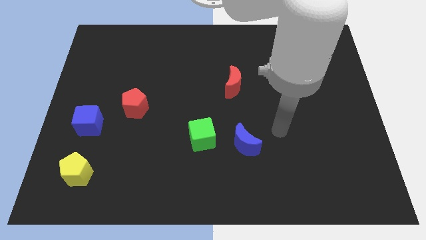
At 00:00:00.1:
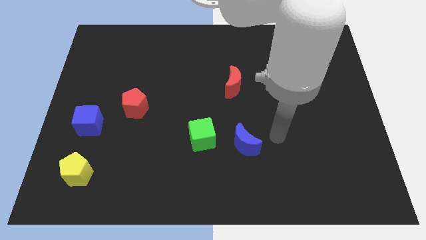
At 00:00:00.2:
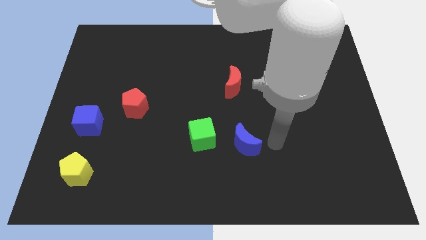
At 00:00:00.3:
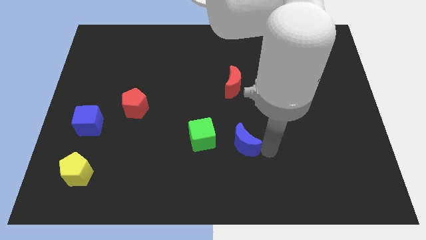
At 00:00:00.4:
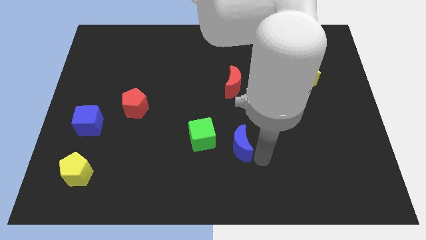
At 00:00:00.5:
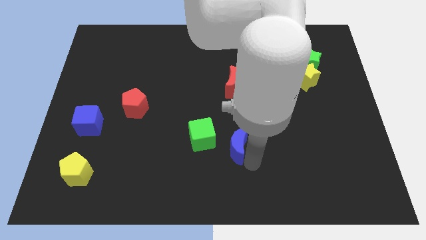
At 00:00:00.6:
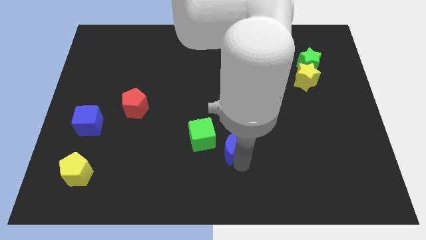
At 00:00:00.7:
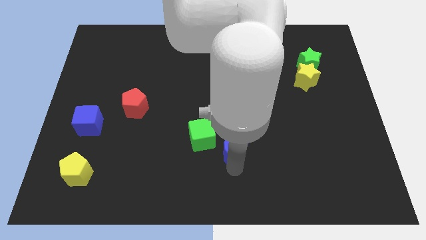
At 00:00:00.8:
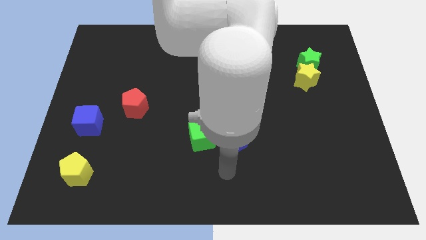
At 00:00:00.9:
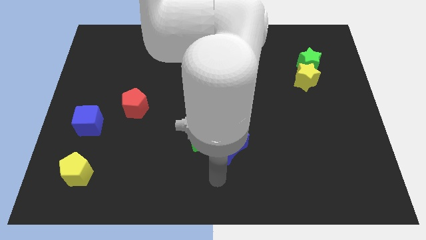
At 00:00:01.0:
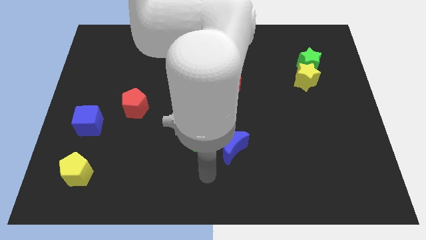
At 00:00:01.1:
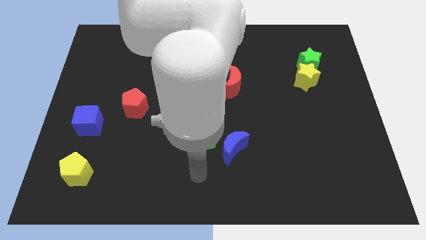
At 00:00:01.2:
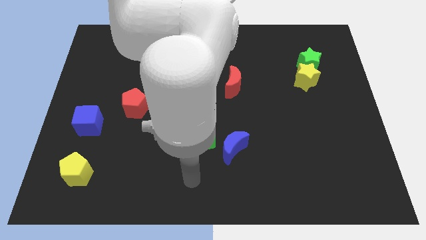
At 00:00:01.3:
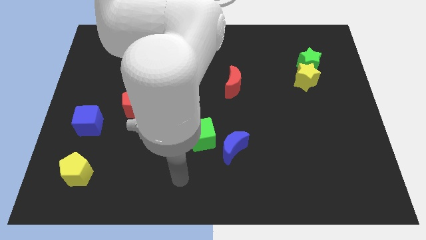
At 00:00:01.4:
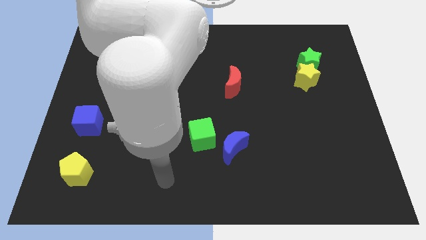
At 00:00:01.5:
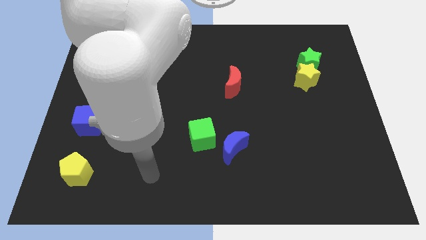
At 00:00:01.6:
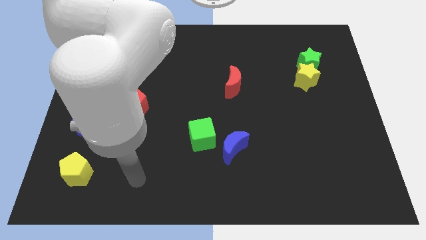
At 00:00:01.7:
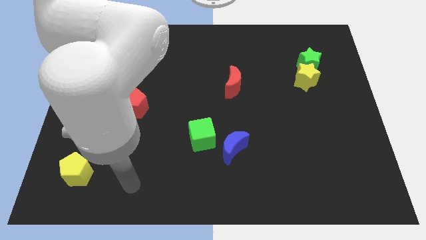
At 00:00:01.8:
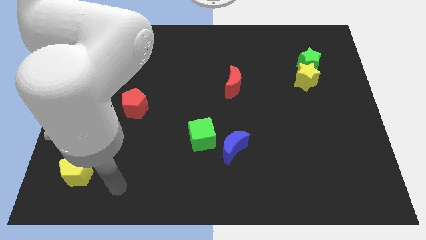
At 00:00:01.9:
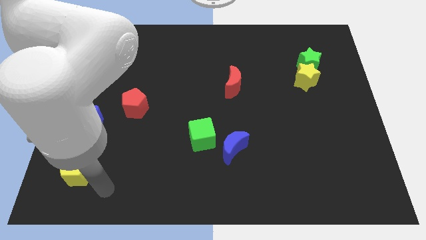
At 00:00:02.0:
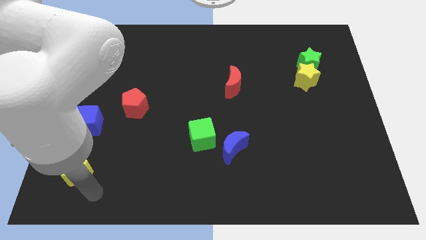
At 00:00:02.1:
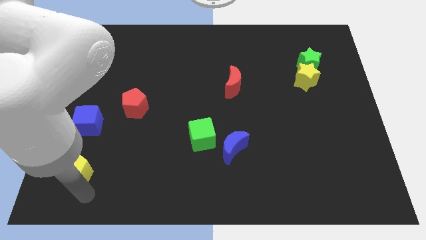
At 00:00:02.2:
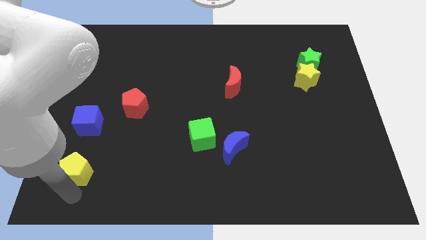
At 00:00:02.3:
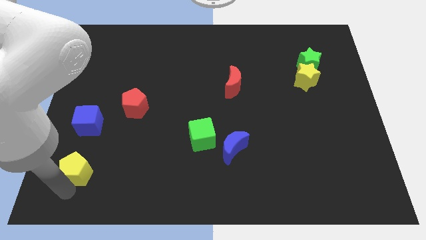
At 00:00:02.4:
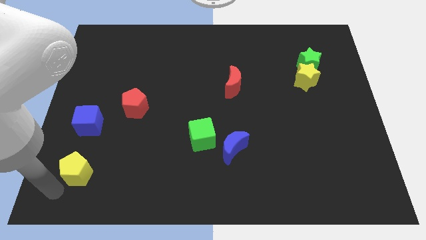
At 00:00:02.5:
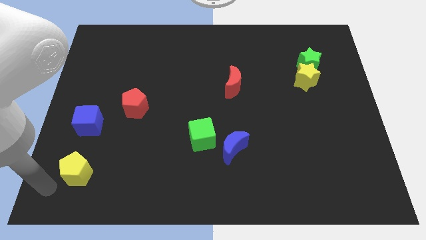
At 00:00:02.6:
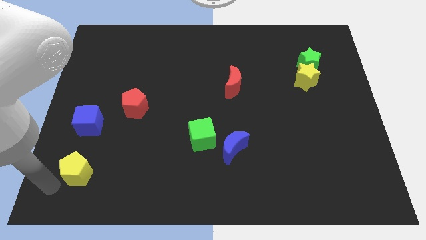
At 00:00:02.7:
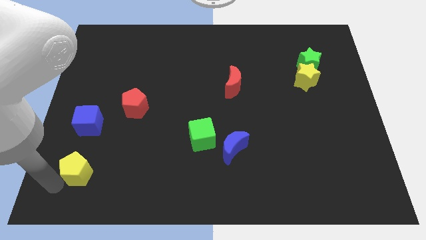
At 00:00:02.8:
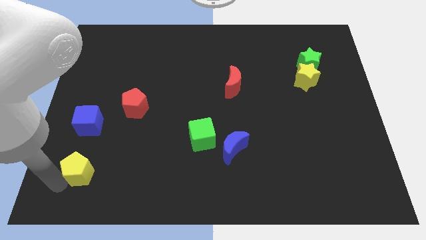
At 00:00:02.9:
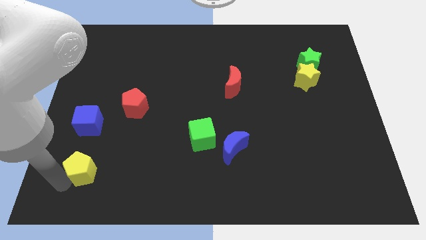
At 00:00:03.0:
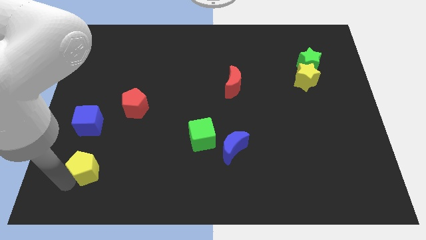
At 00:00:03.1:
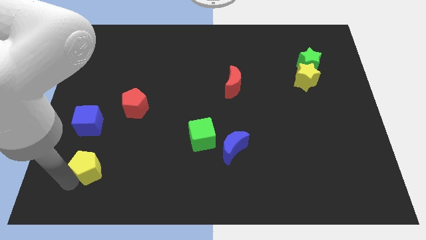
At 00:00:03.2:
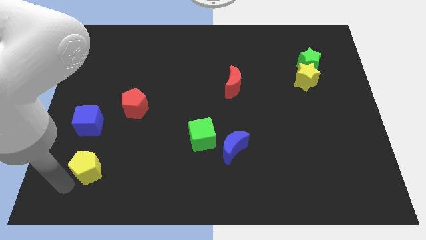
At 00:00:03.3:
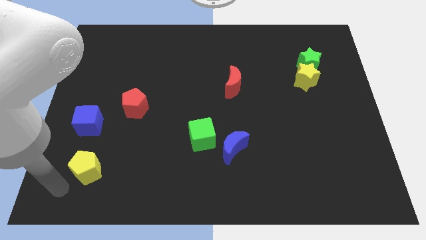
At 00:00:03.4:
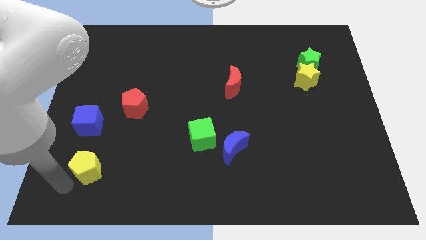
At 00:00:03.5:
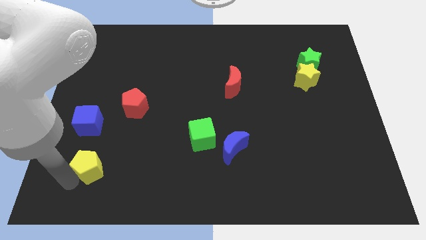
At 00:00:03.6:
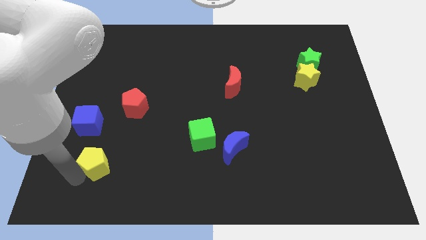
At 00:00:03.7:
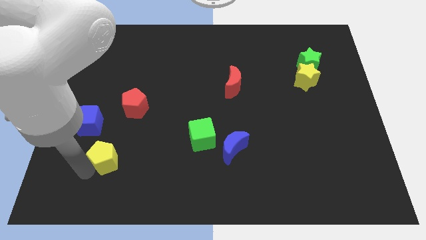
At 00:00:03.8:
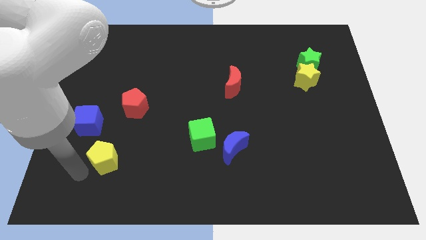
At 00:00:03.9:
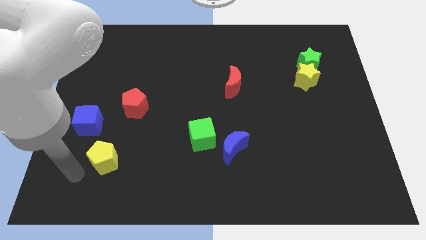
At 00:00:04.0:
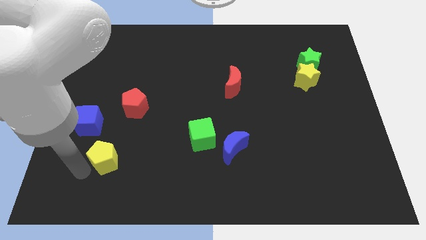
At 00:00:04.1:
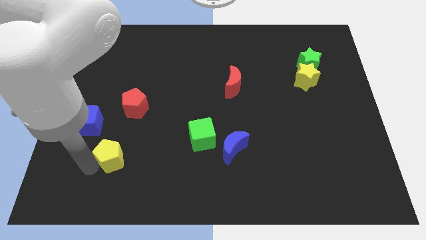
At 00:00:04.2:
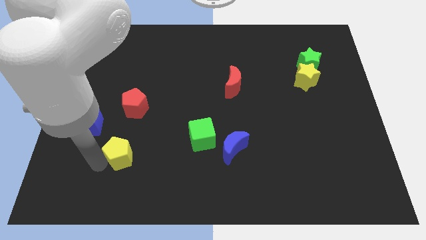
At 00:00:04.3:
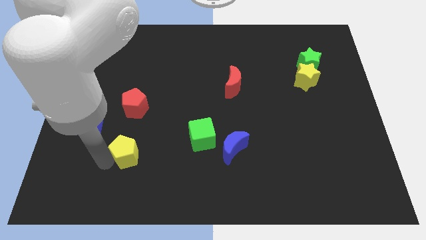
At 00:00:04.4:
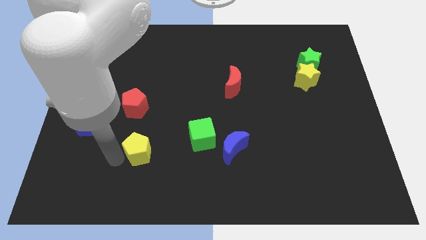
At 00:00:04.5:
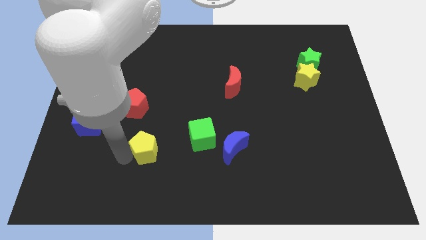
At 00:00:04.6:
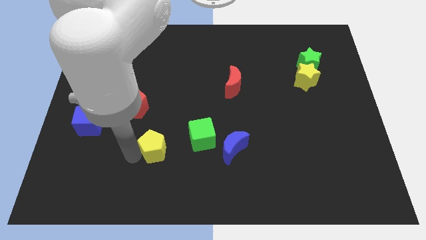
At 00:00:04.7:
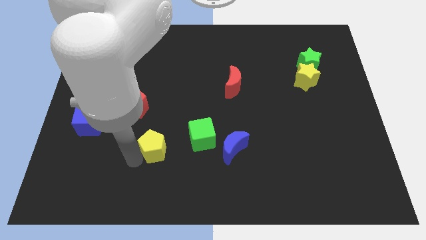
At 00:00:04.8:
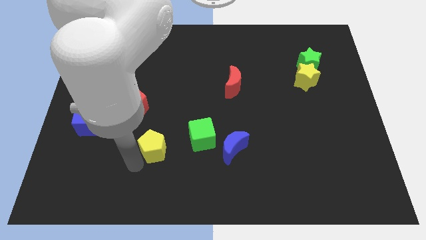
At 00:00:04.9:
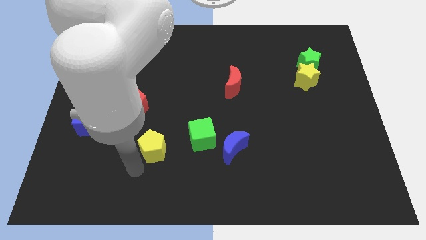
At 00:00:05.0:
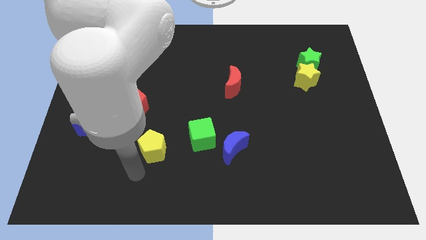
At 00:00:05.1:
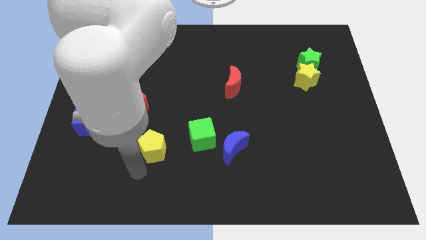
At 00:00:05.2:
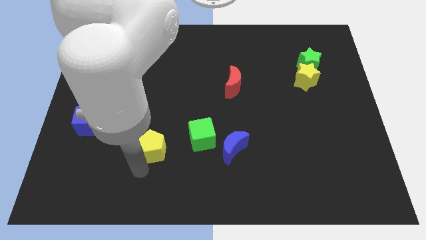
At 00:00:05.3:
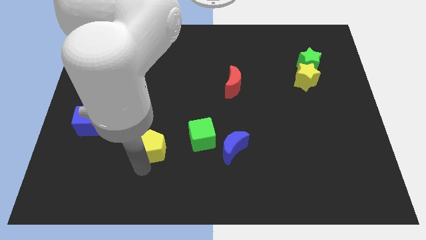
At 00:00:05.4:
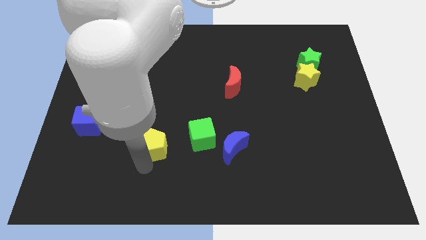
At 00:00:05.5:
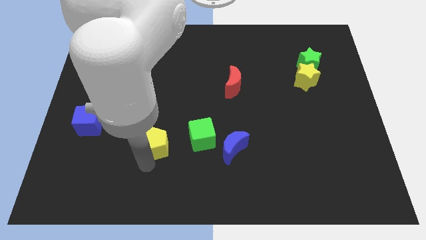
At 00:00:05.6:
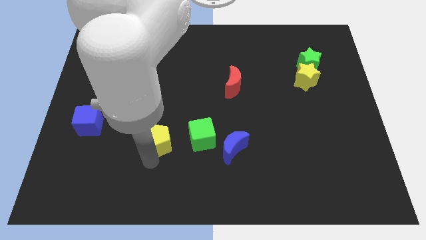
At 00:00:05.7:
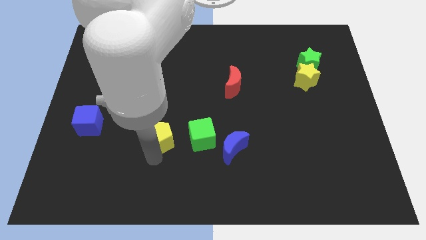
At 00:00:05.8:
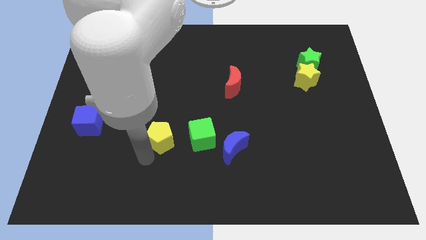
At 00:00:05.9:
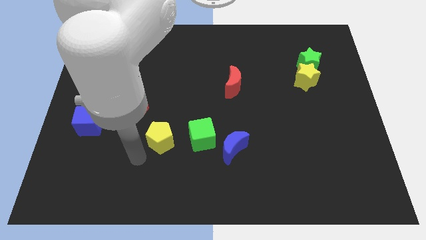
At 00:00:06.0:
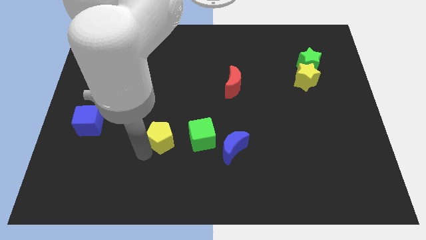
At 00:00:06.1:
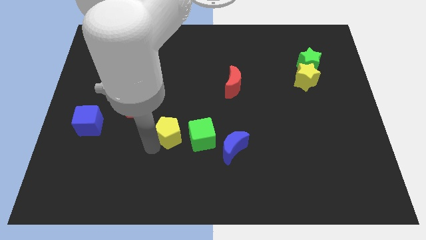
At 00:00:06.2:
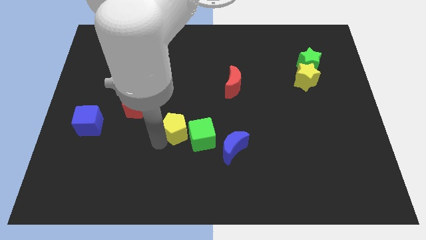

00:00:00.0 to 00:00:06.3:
slide the yellow pentagon to the center

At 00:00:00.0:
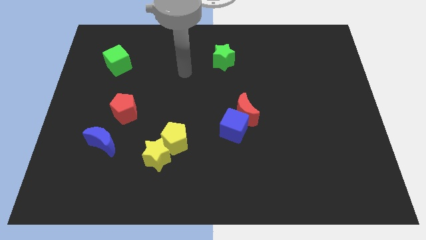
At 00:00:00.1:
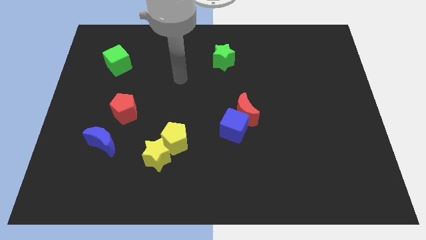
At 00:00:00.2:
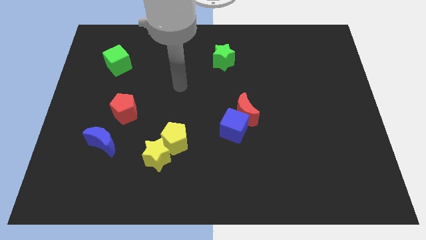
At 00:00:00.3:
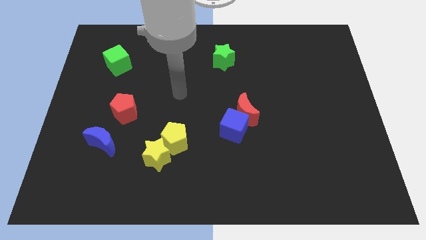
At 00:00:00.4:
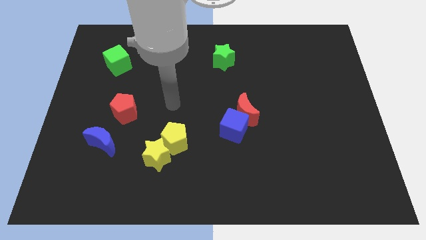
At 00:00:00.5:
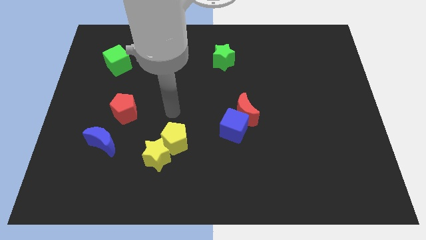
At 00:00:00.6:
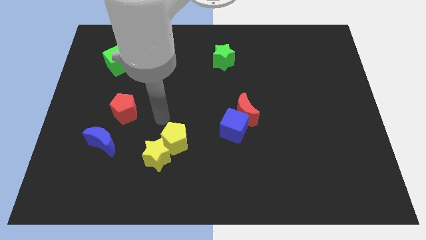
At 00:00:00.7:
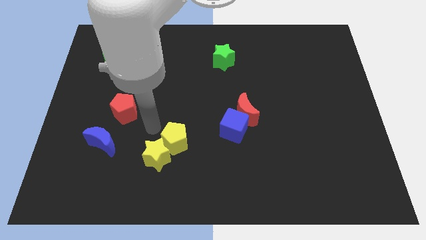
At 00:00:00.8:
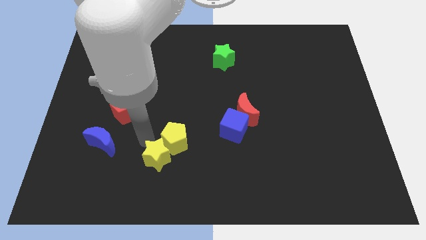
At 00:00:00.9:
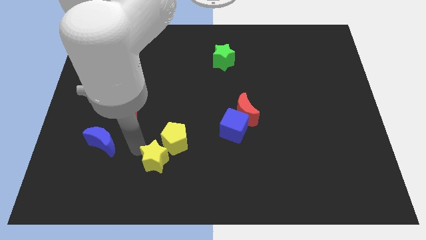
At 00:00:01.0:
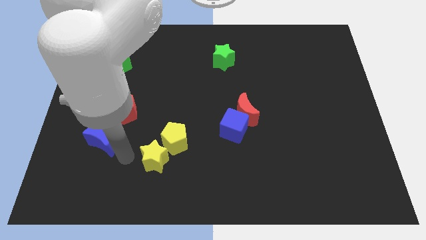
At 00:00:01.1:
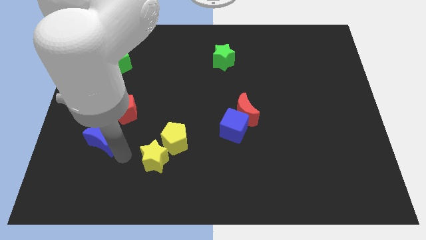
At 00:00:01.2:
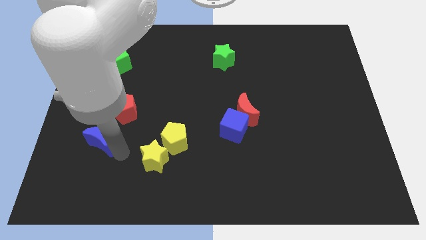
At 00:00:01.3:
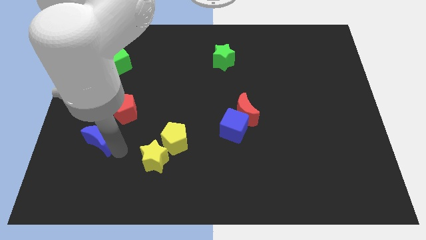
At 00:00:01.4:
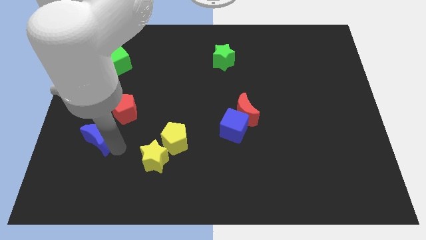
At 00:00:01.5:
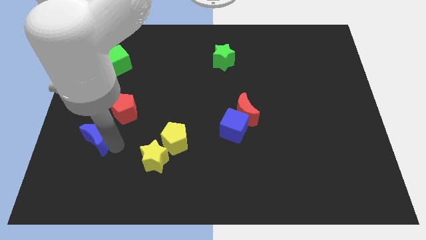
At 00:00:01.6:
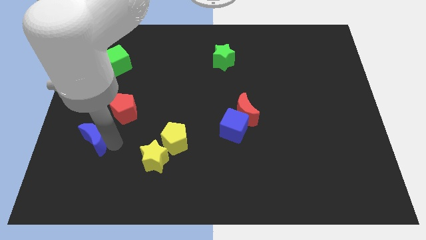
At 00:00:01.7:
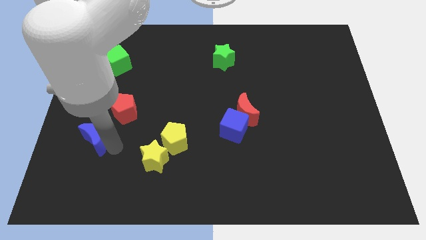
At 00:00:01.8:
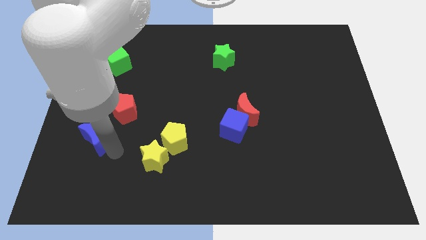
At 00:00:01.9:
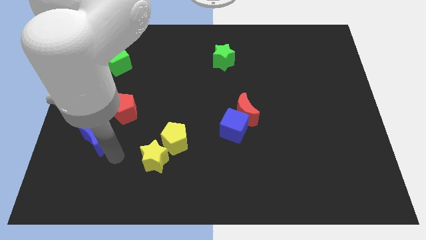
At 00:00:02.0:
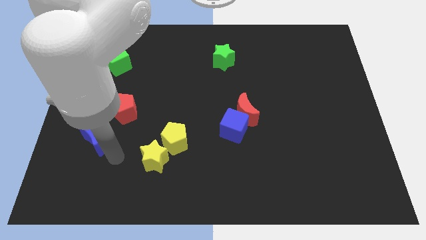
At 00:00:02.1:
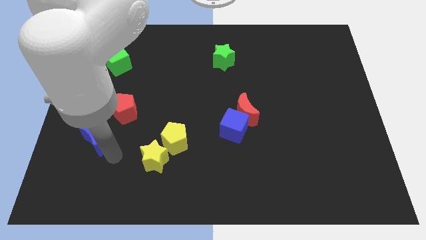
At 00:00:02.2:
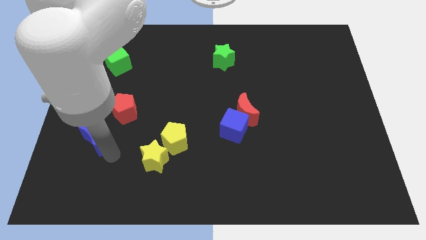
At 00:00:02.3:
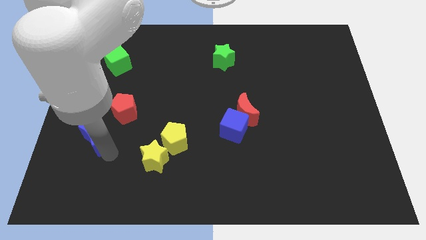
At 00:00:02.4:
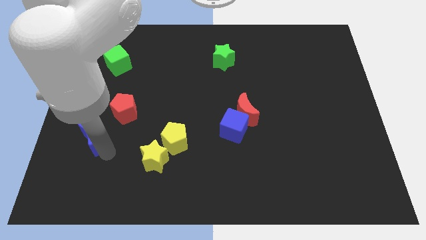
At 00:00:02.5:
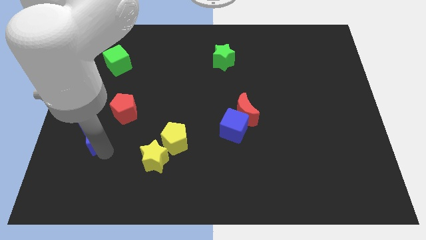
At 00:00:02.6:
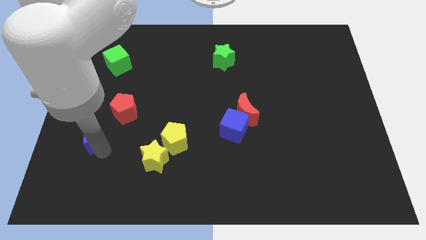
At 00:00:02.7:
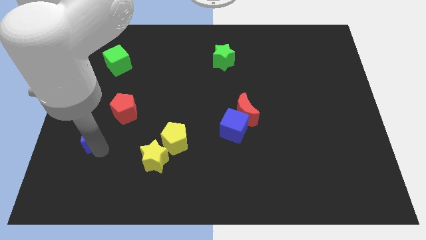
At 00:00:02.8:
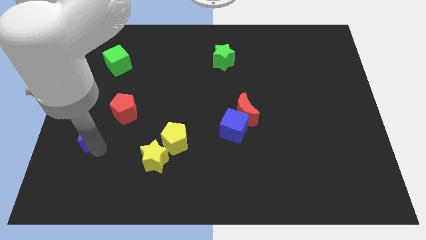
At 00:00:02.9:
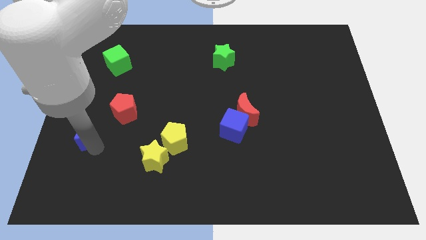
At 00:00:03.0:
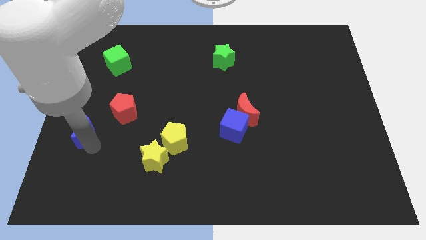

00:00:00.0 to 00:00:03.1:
move the blue moon to the left side
